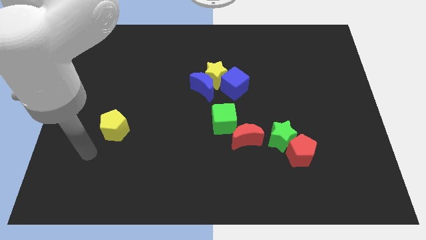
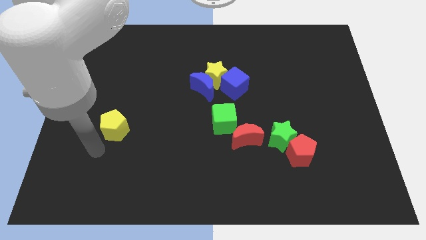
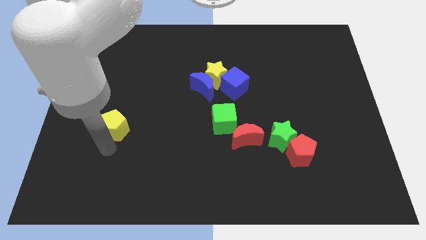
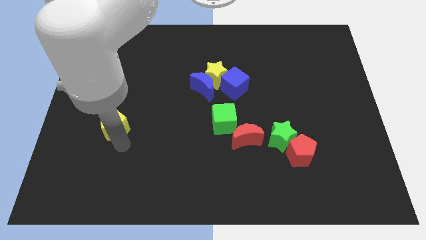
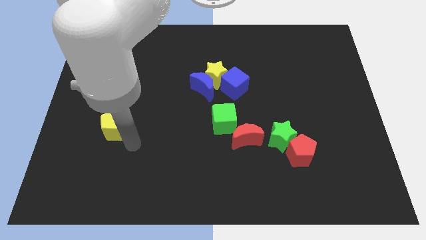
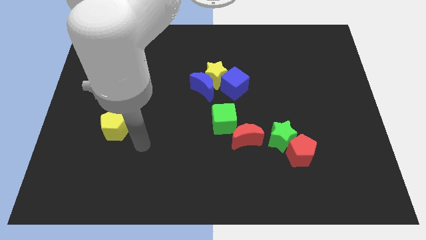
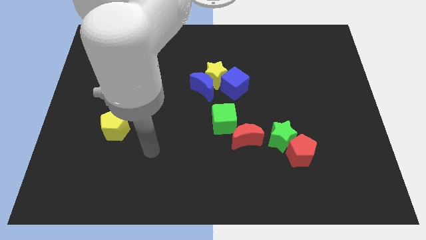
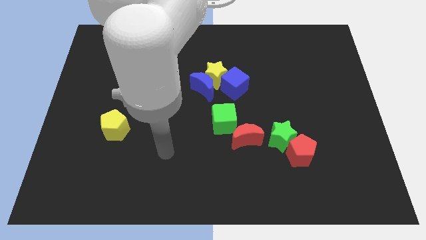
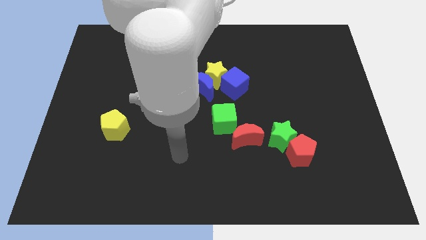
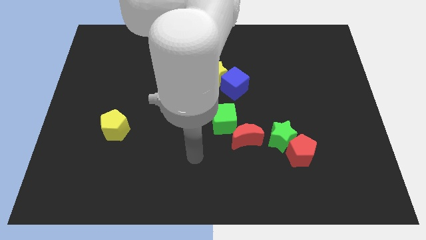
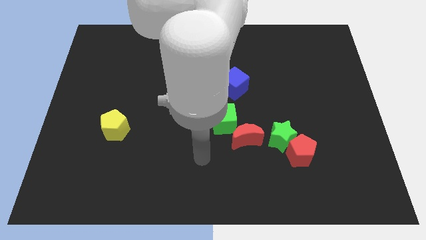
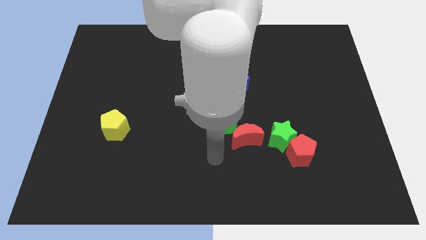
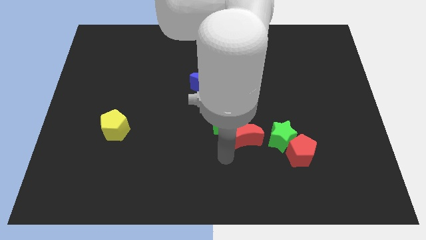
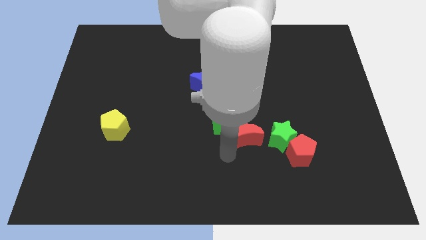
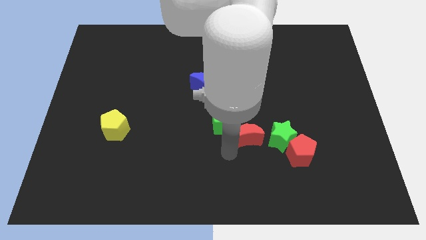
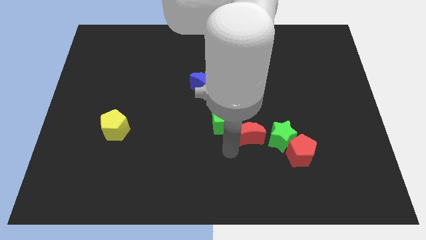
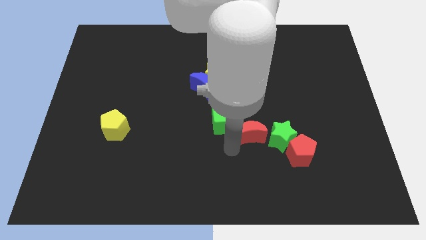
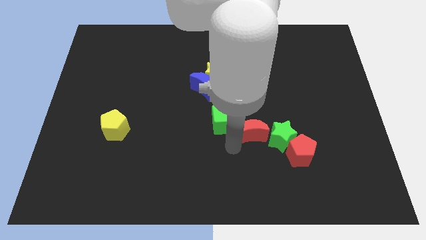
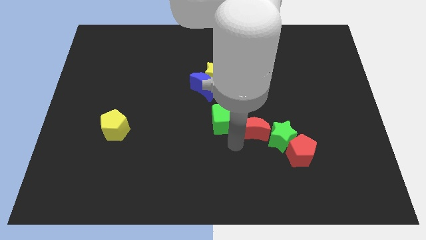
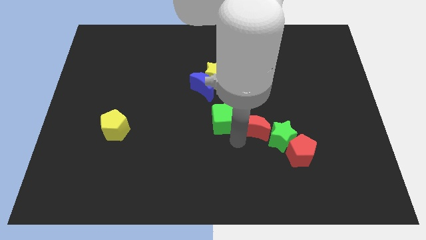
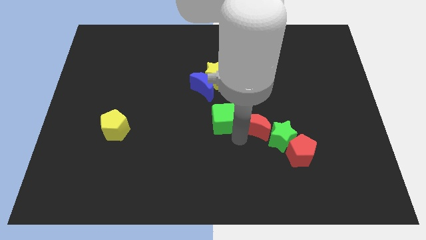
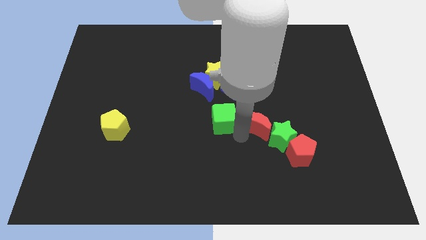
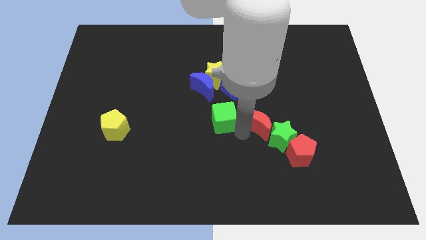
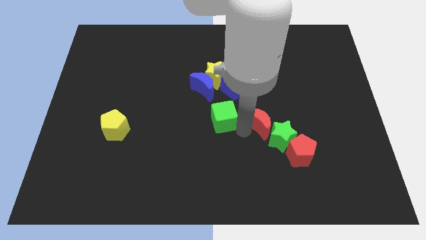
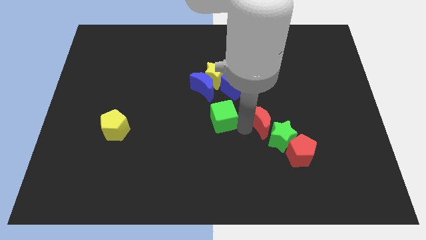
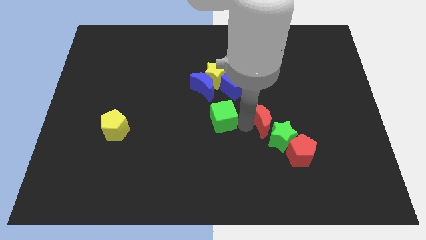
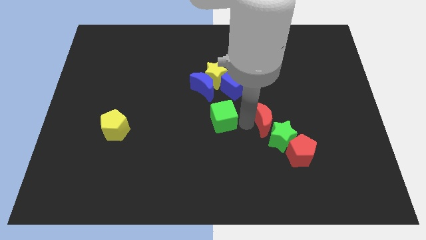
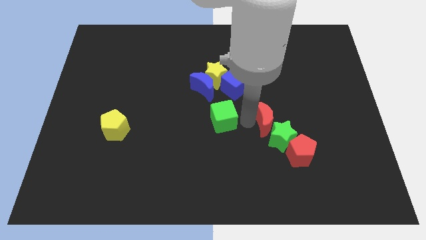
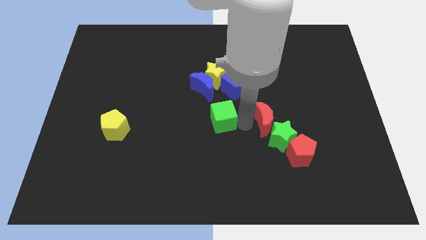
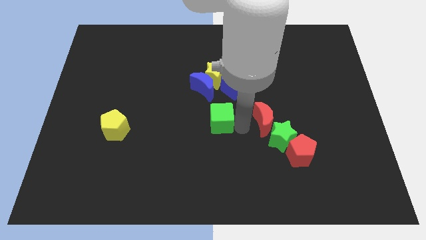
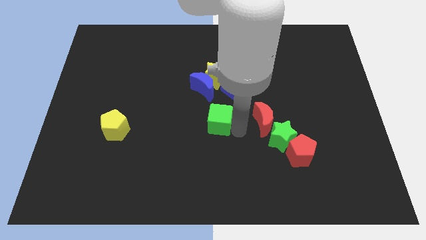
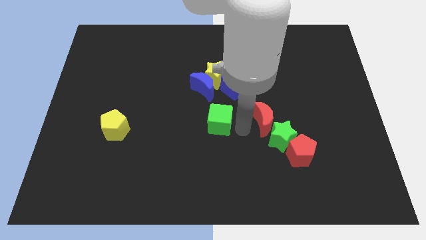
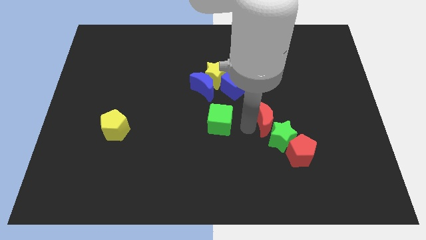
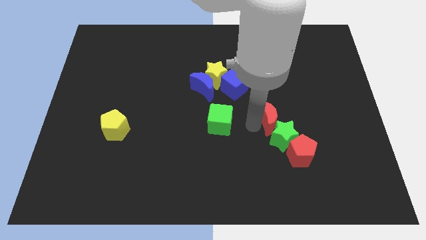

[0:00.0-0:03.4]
slightly slide the red moon up and to the right diagonally

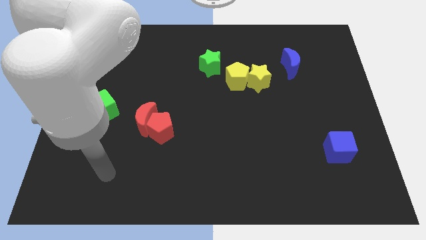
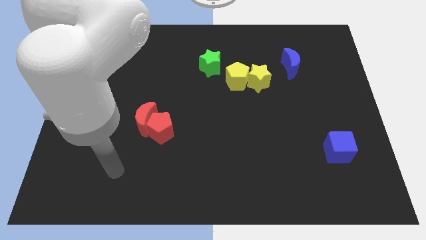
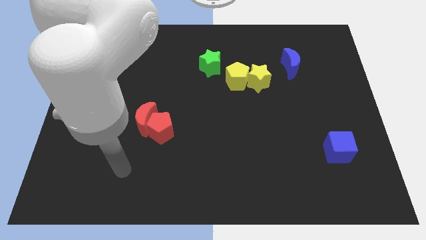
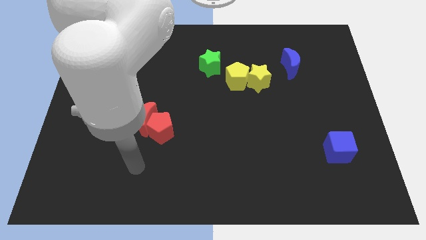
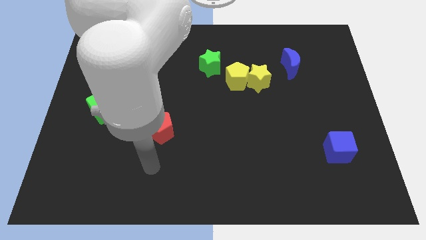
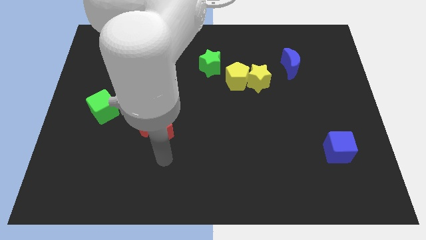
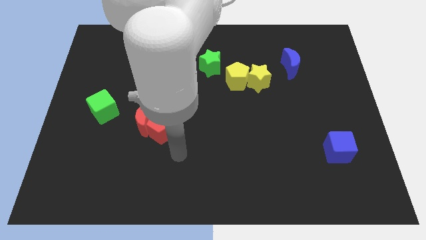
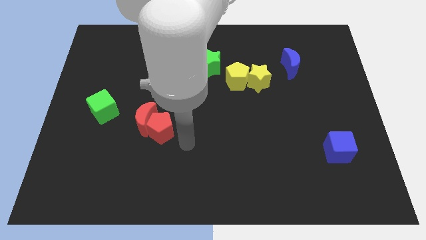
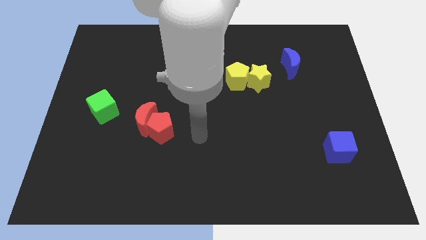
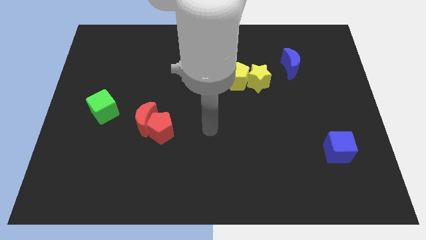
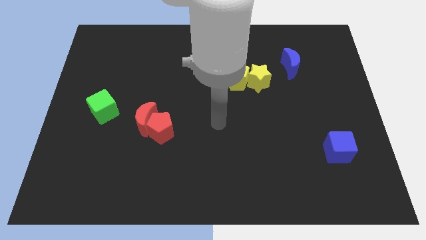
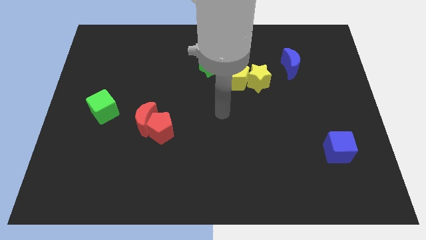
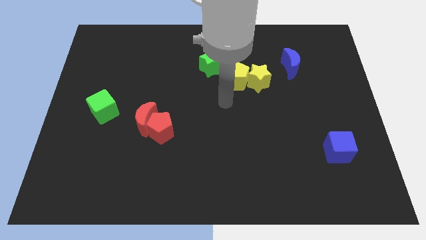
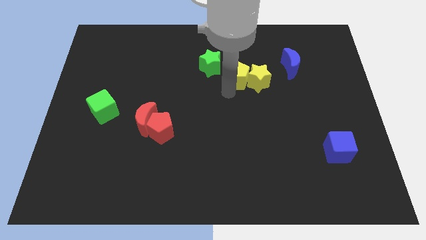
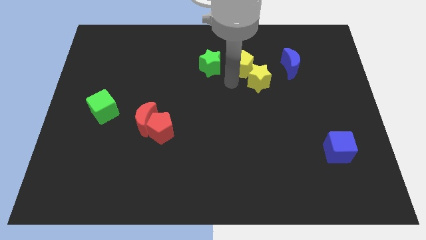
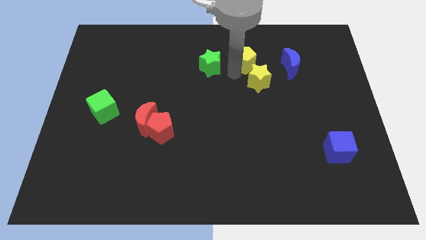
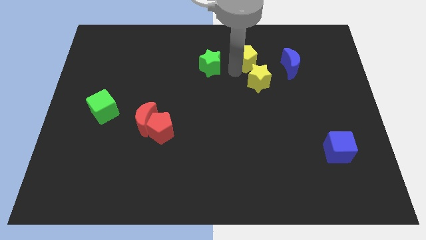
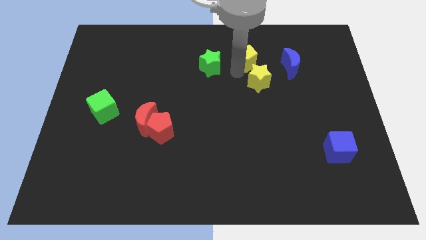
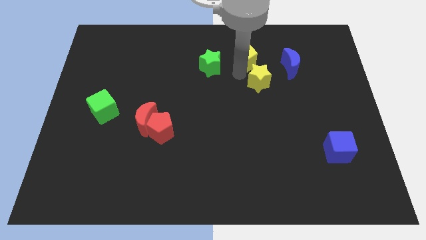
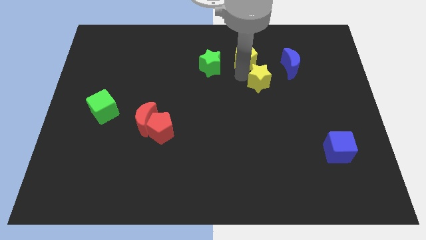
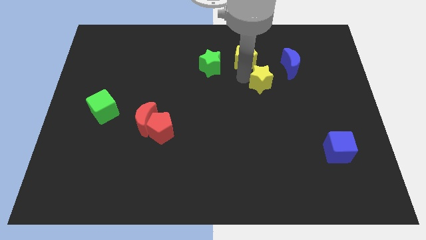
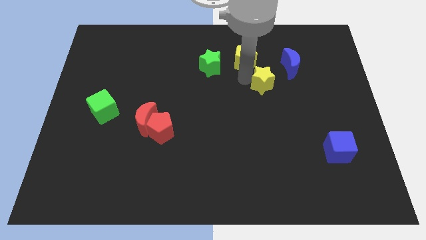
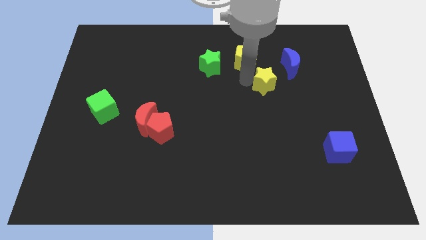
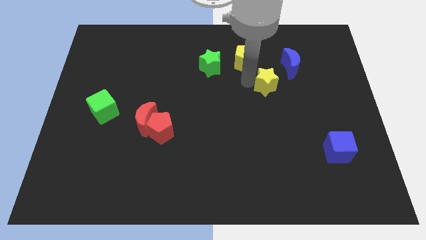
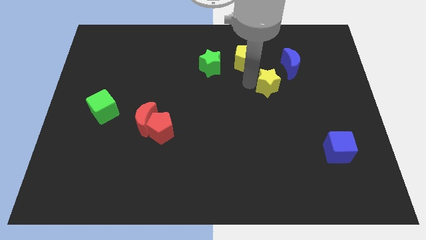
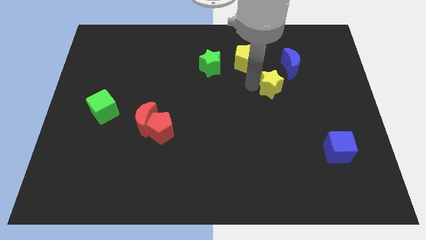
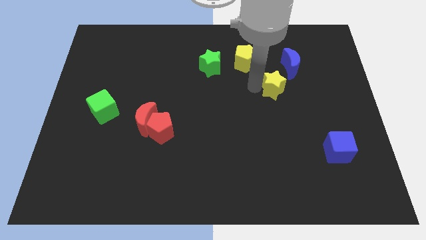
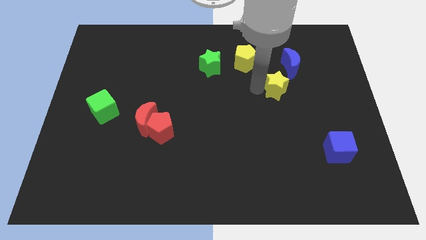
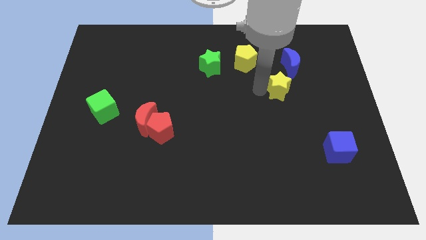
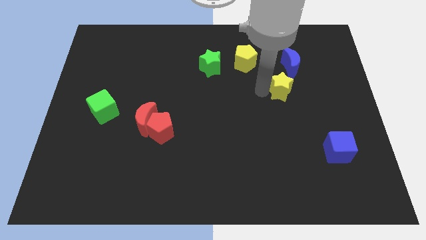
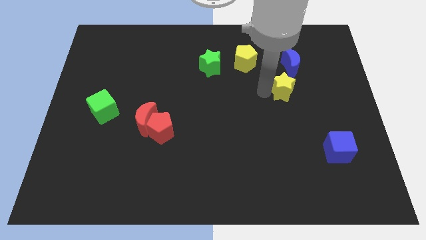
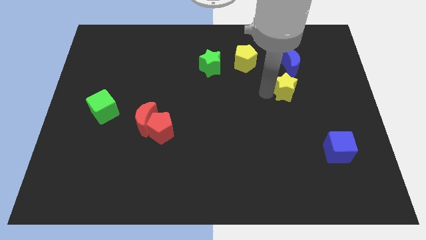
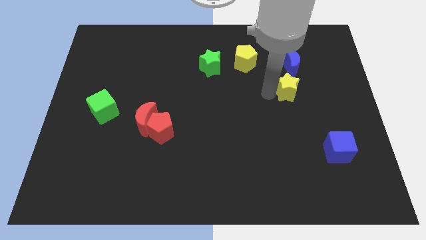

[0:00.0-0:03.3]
move the yellow star a bit down and then right

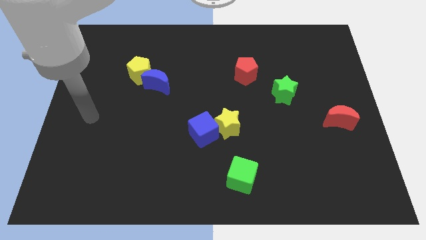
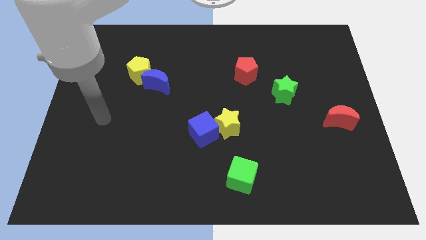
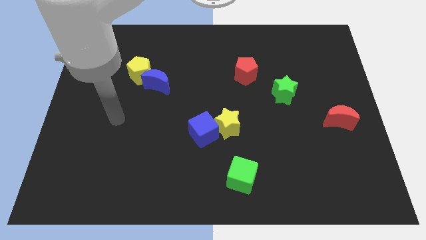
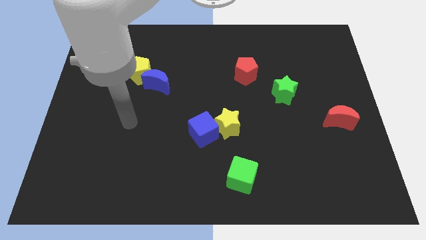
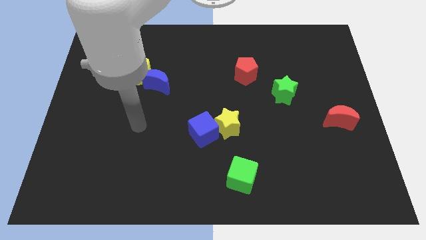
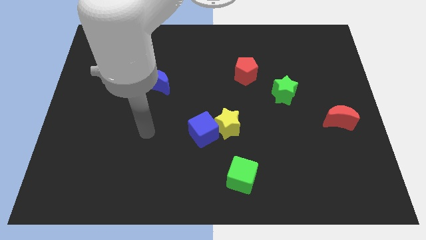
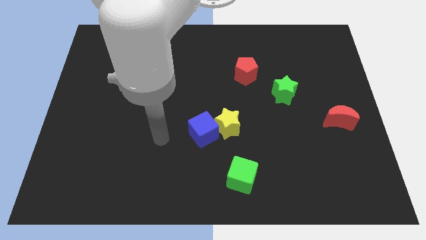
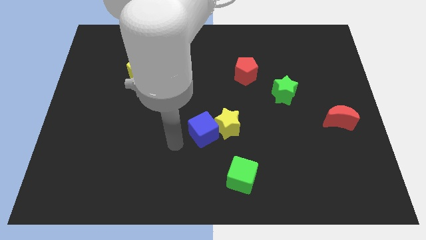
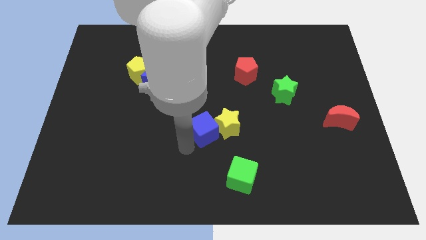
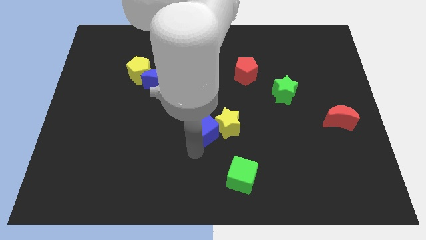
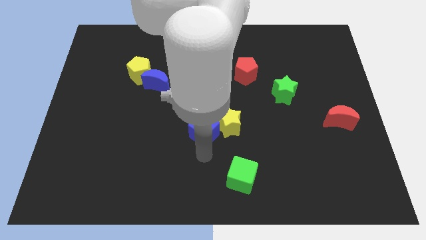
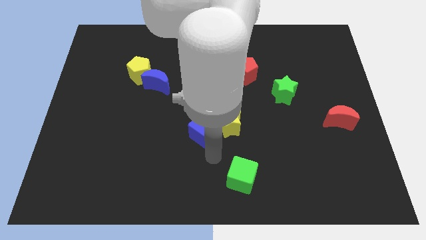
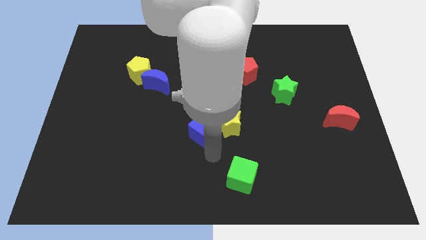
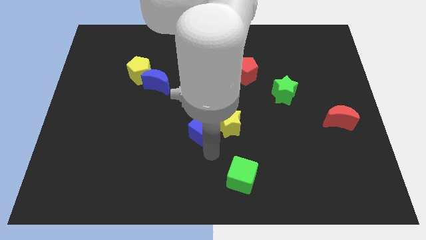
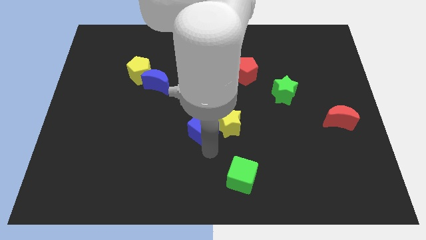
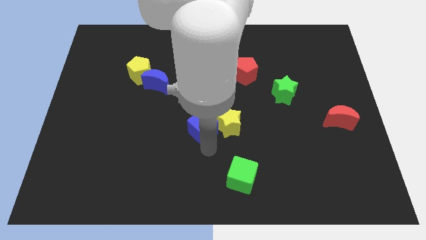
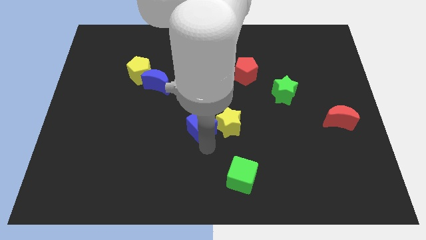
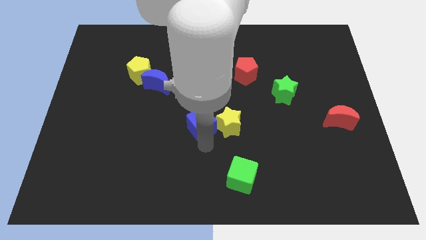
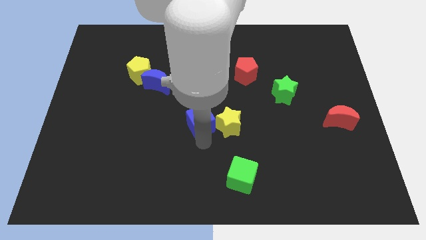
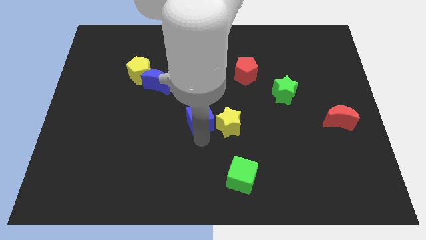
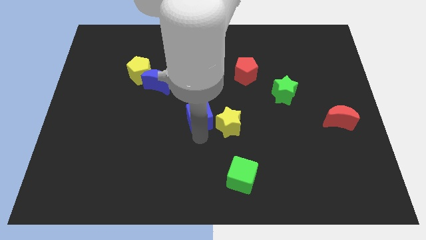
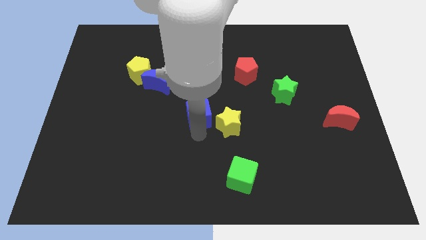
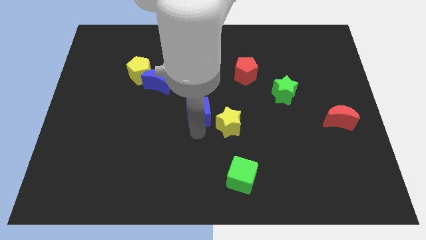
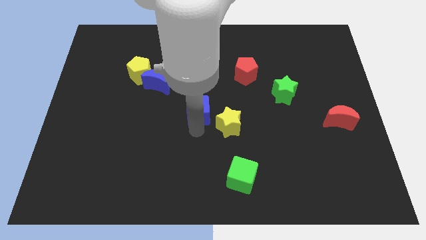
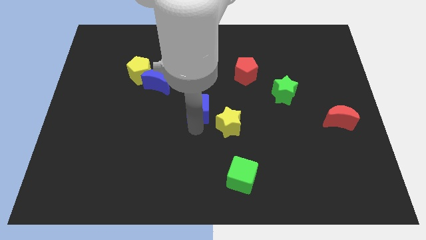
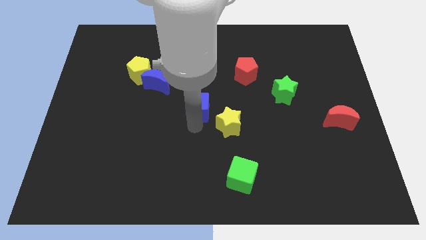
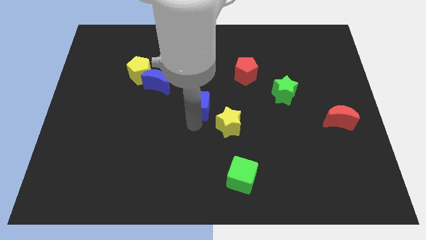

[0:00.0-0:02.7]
push the blue cube a little bit upwards
